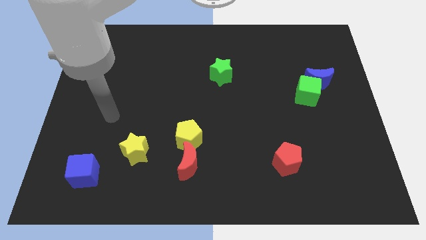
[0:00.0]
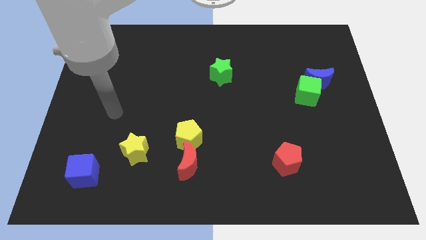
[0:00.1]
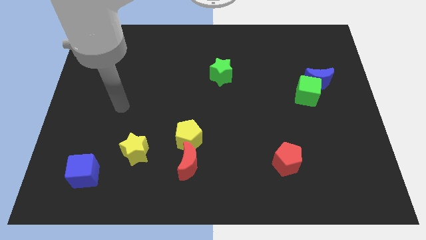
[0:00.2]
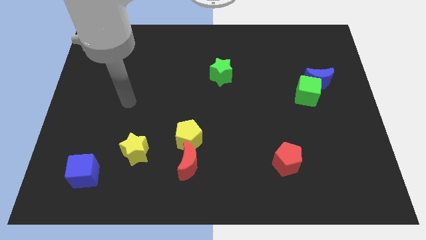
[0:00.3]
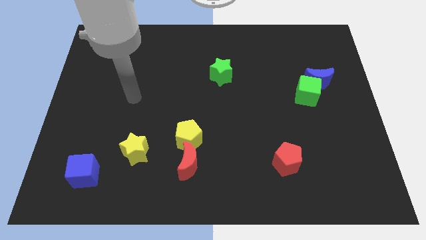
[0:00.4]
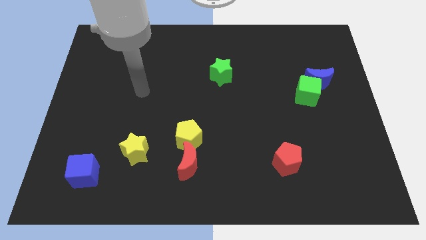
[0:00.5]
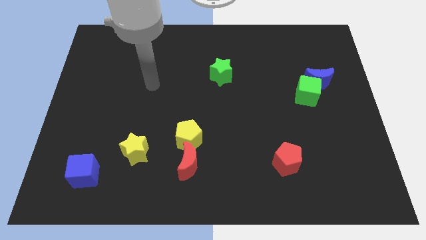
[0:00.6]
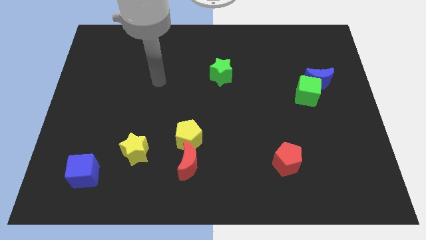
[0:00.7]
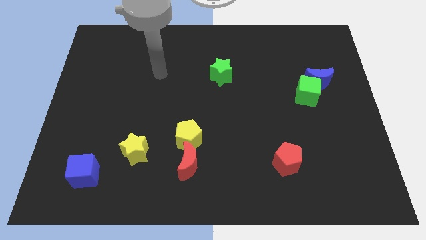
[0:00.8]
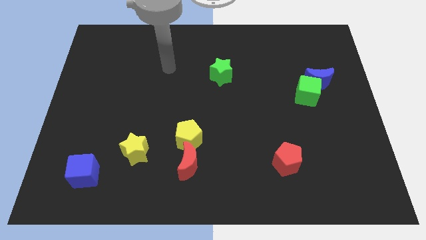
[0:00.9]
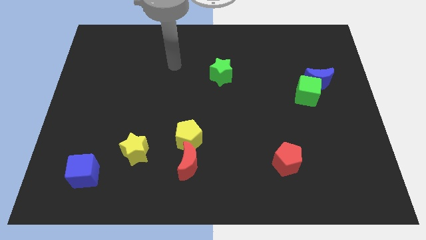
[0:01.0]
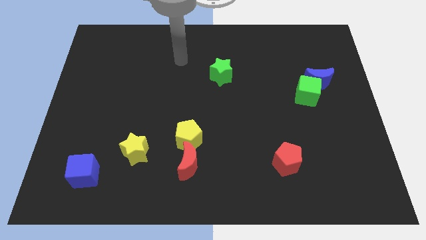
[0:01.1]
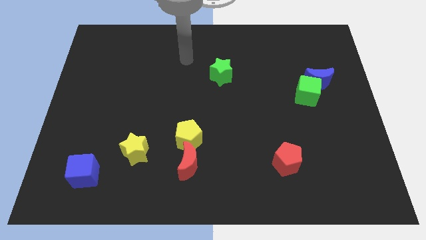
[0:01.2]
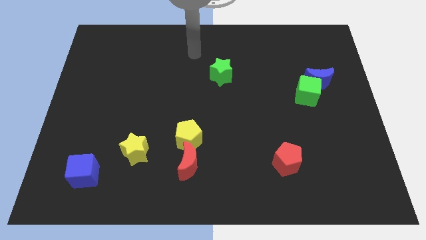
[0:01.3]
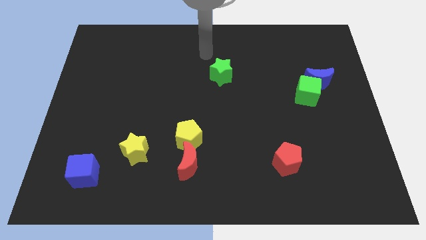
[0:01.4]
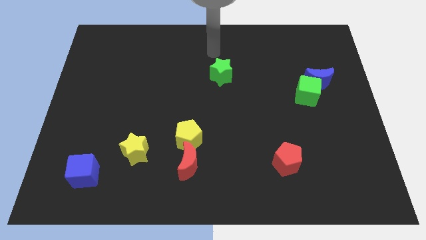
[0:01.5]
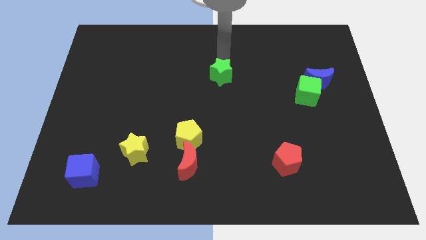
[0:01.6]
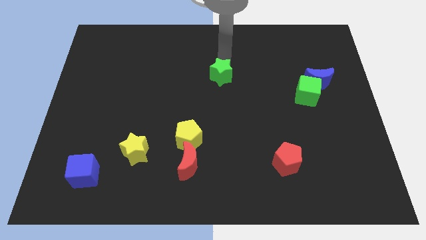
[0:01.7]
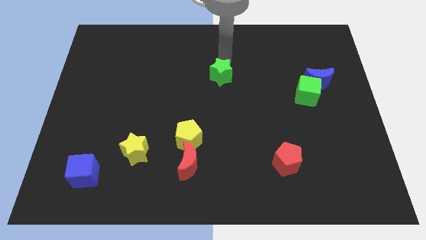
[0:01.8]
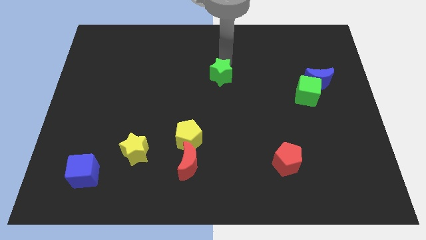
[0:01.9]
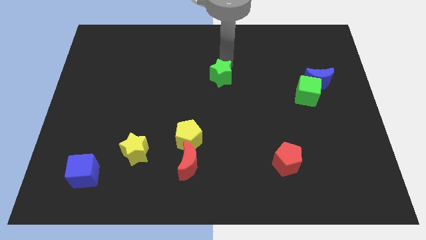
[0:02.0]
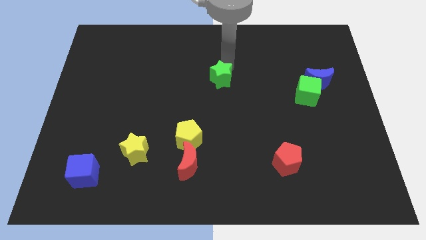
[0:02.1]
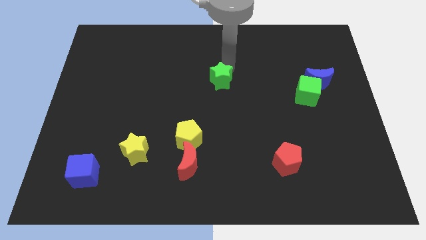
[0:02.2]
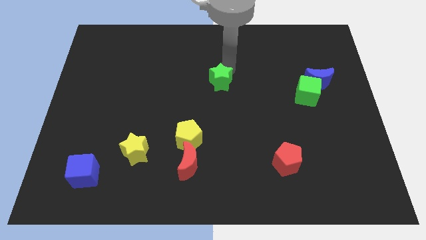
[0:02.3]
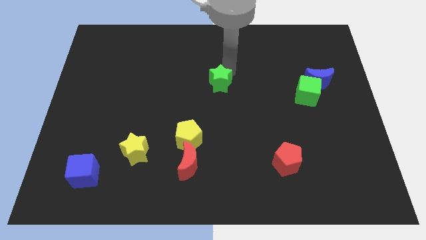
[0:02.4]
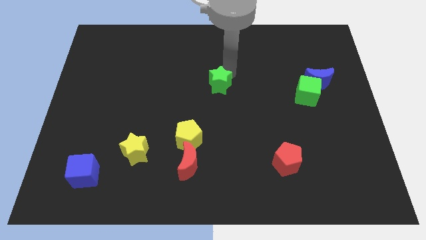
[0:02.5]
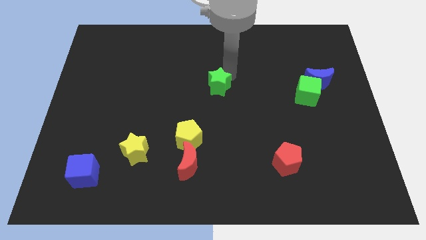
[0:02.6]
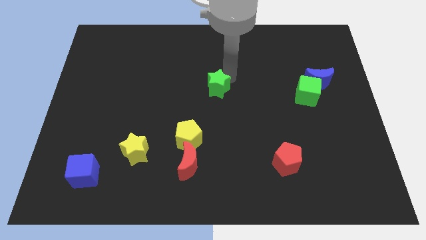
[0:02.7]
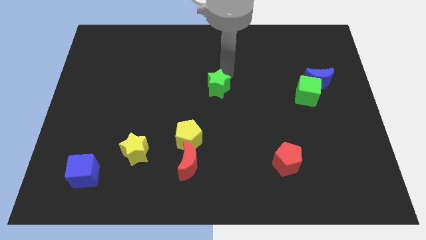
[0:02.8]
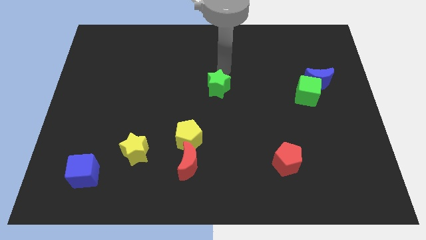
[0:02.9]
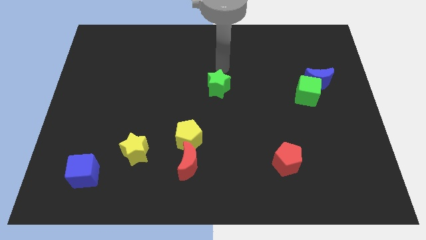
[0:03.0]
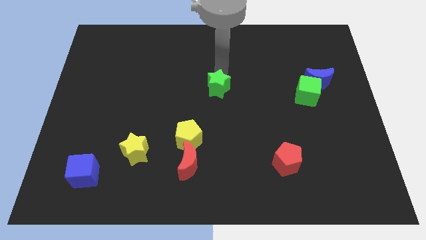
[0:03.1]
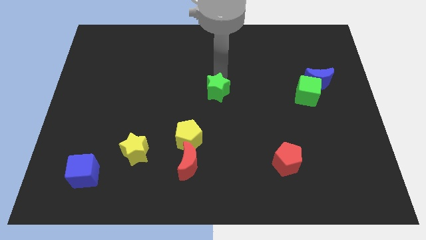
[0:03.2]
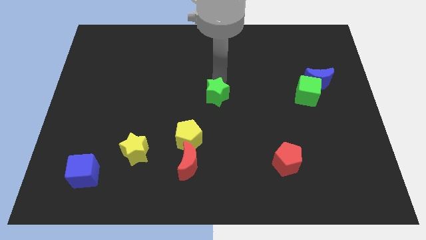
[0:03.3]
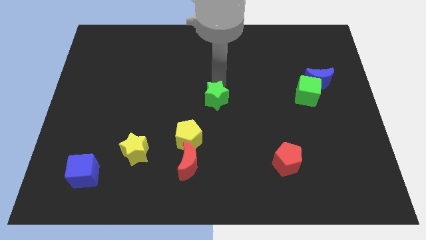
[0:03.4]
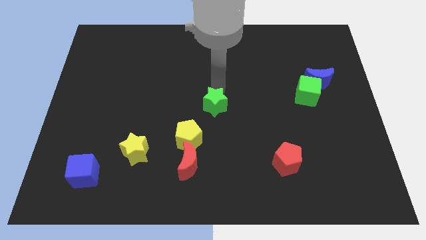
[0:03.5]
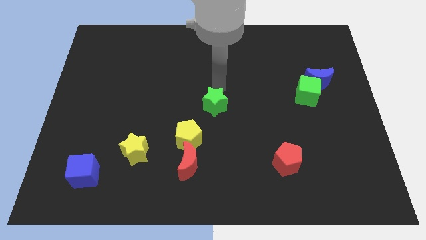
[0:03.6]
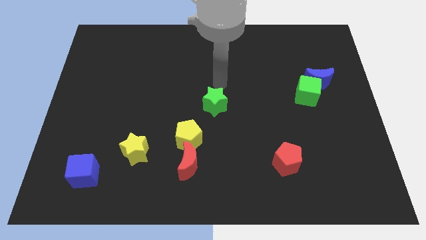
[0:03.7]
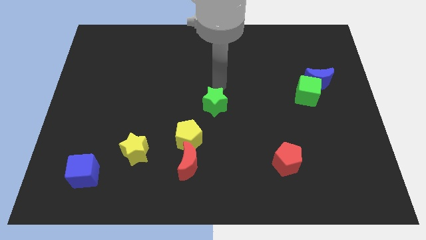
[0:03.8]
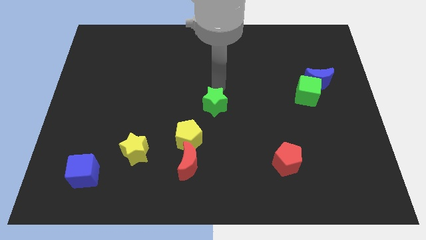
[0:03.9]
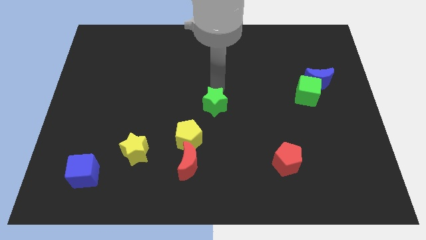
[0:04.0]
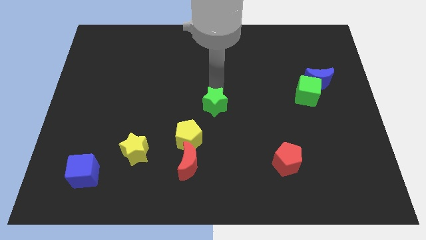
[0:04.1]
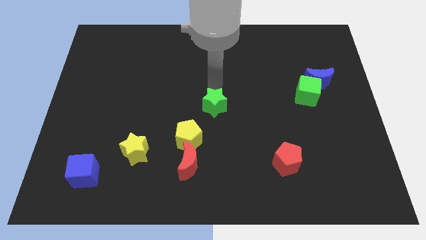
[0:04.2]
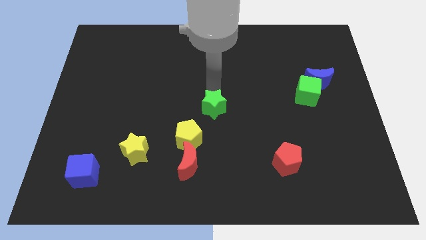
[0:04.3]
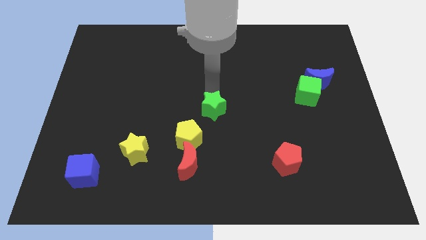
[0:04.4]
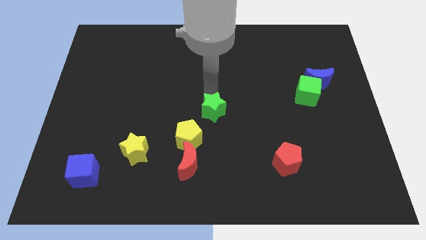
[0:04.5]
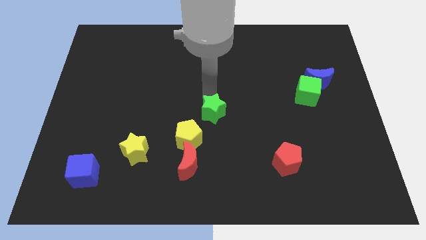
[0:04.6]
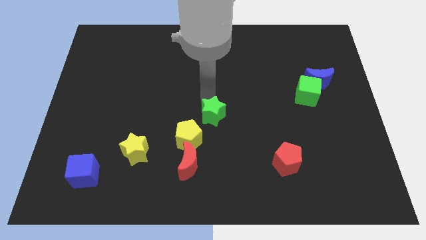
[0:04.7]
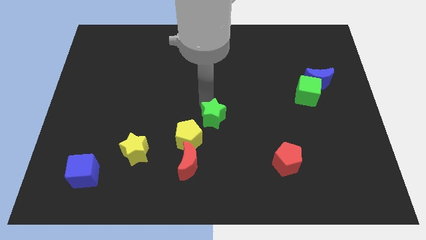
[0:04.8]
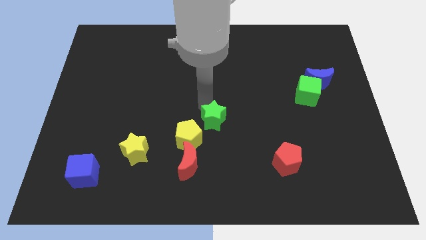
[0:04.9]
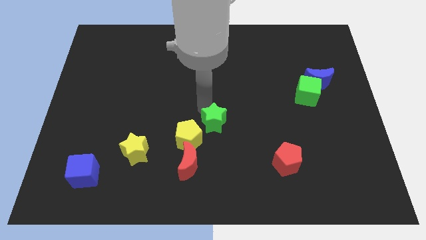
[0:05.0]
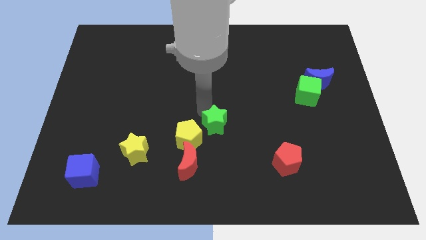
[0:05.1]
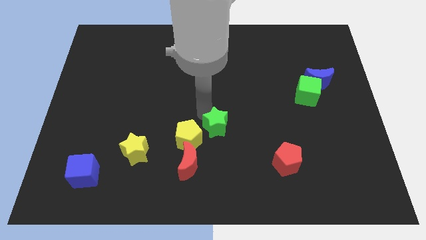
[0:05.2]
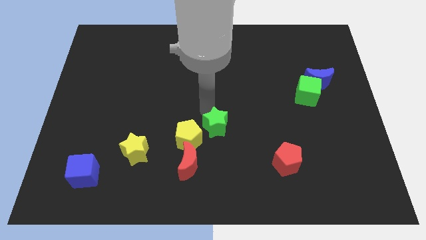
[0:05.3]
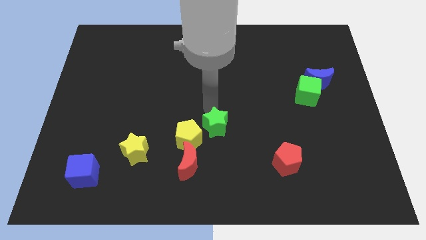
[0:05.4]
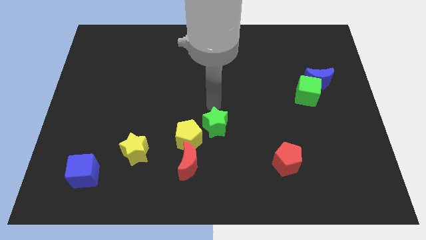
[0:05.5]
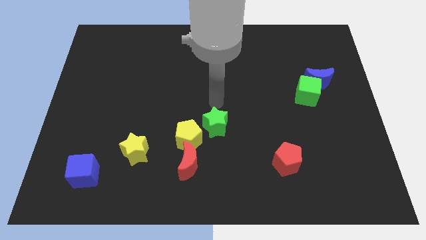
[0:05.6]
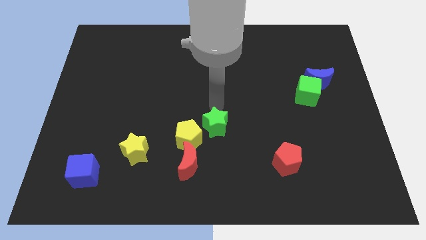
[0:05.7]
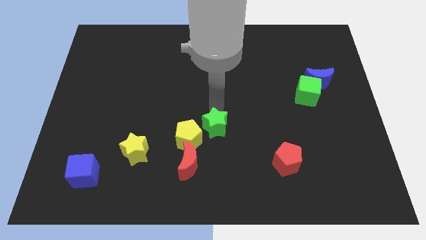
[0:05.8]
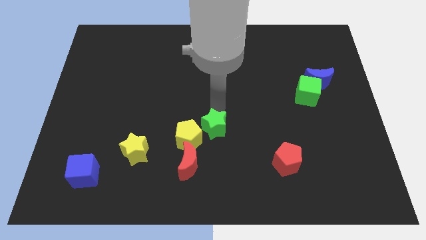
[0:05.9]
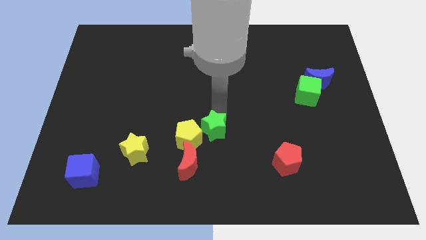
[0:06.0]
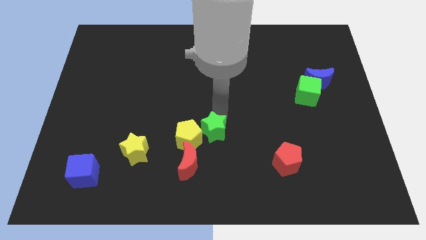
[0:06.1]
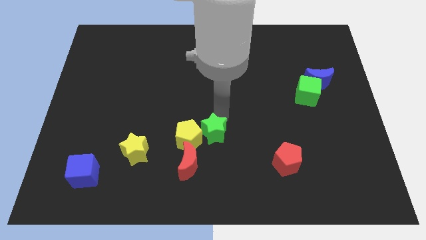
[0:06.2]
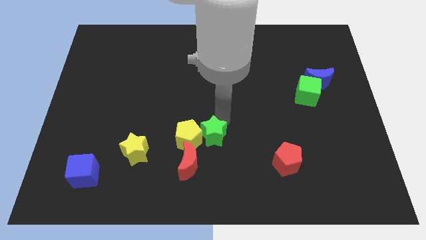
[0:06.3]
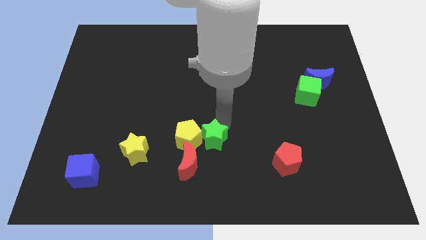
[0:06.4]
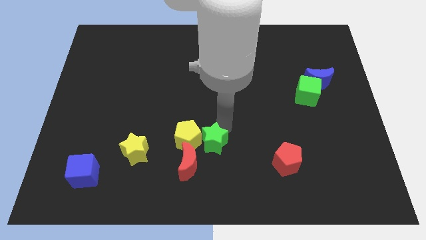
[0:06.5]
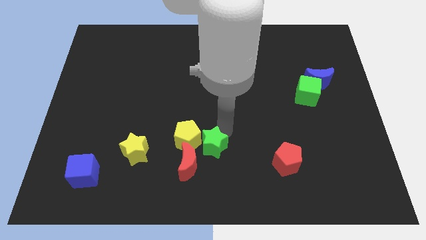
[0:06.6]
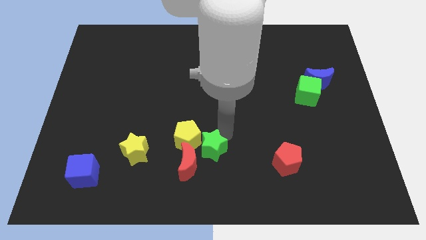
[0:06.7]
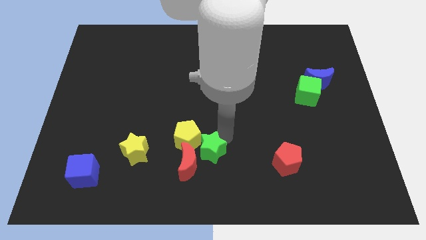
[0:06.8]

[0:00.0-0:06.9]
push the green star next to the red moon

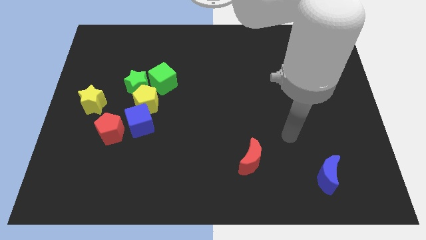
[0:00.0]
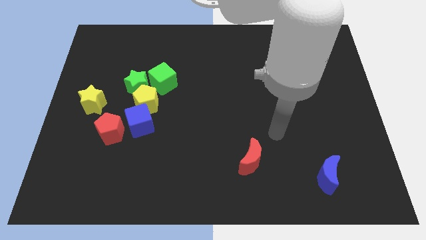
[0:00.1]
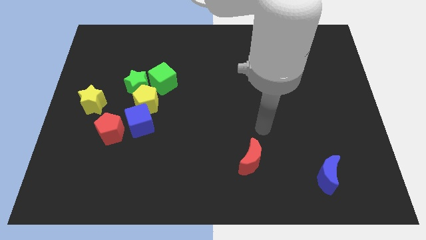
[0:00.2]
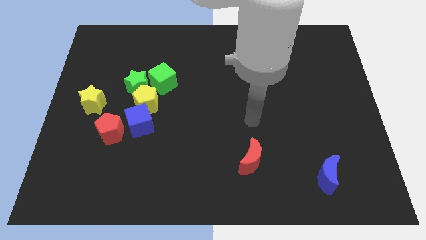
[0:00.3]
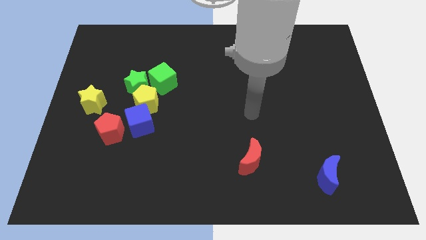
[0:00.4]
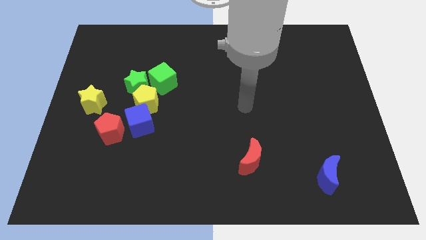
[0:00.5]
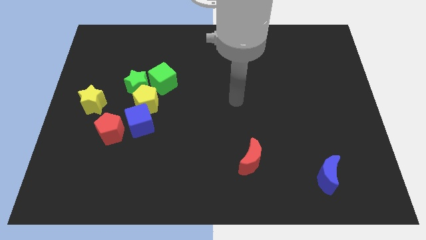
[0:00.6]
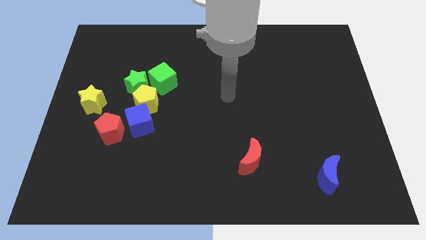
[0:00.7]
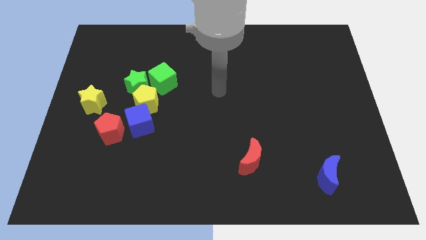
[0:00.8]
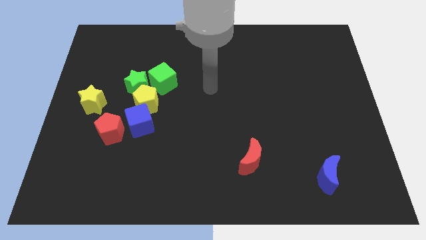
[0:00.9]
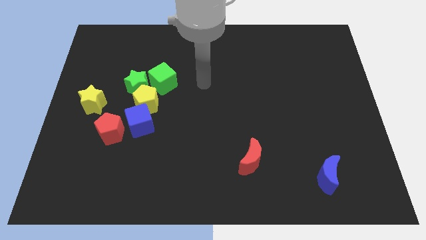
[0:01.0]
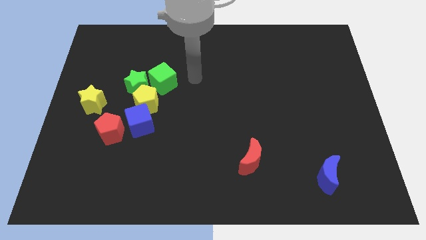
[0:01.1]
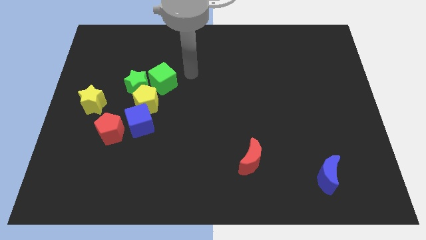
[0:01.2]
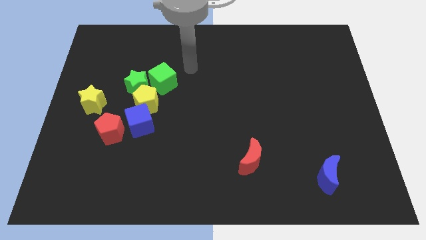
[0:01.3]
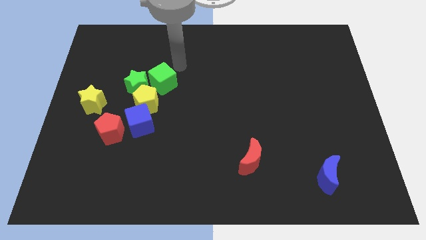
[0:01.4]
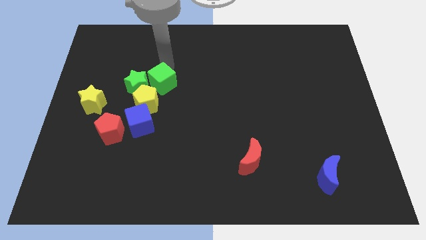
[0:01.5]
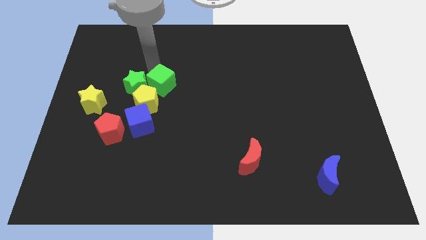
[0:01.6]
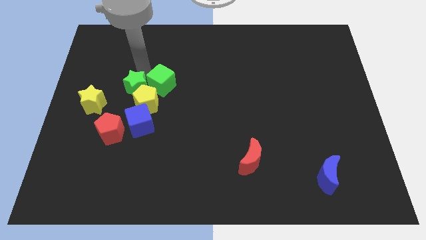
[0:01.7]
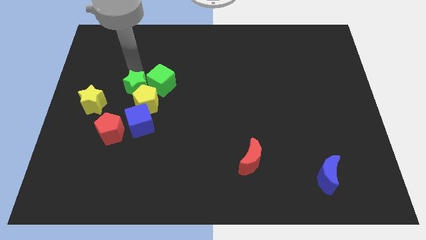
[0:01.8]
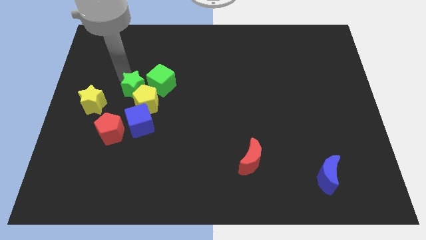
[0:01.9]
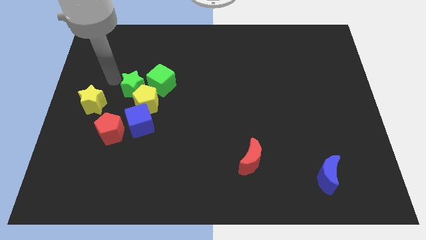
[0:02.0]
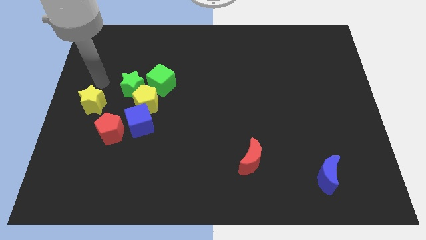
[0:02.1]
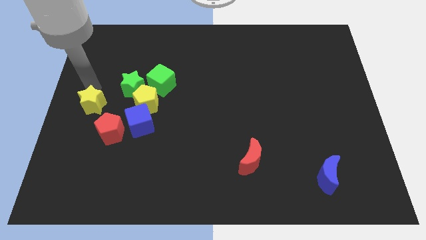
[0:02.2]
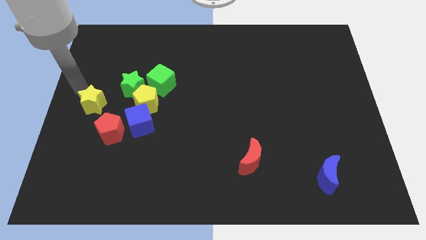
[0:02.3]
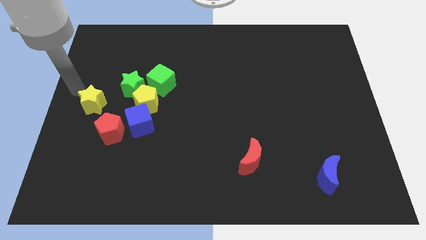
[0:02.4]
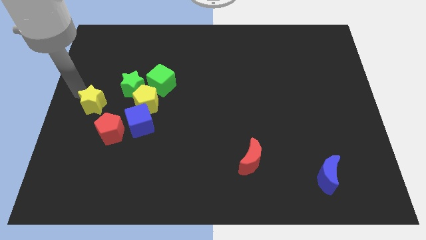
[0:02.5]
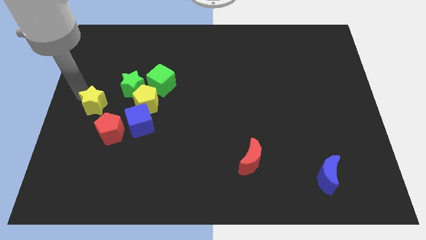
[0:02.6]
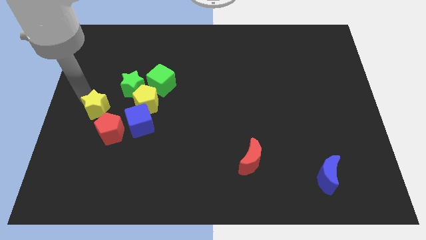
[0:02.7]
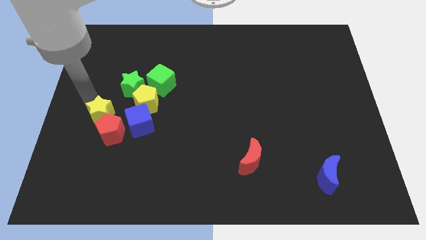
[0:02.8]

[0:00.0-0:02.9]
move the yellow star next to the red pentagon
